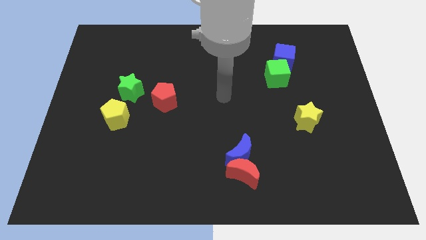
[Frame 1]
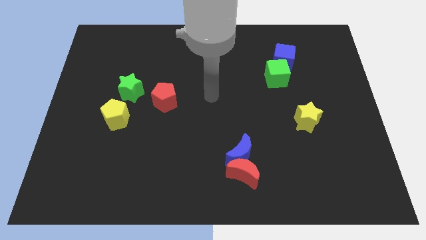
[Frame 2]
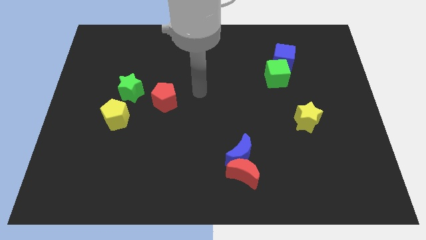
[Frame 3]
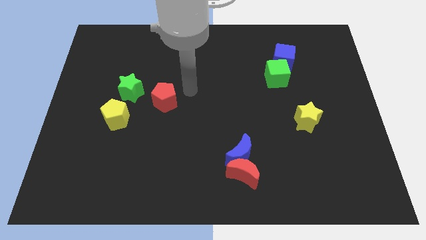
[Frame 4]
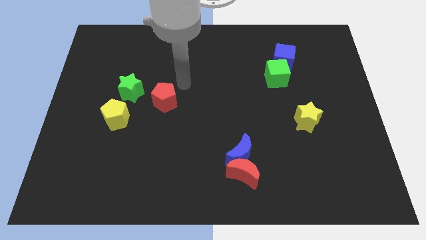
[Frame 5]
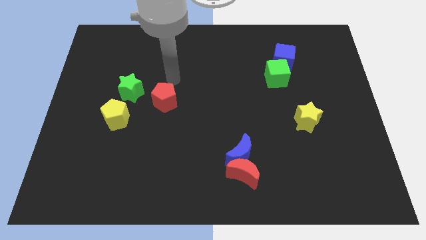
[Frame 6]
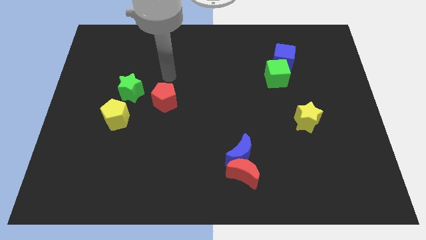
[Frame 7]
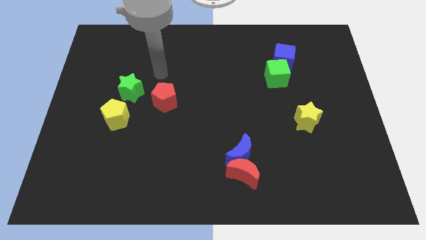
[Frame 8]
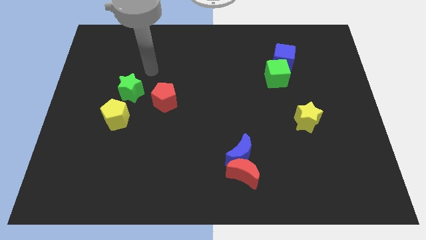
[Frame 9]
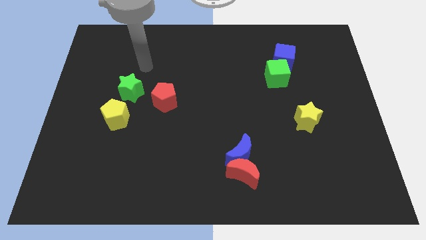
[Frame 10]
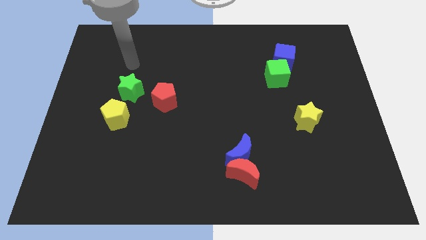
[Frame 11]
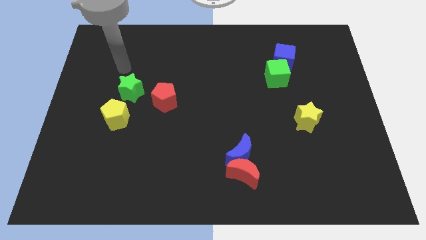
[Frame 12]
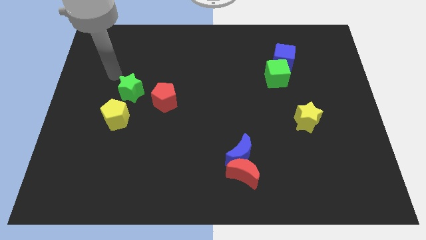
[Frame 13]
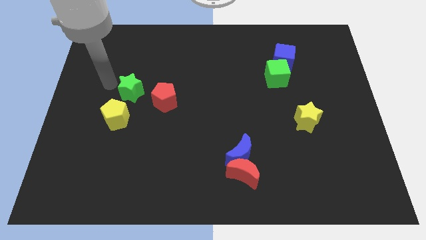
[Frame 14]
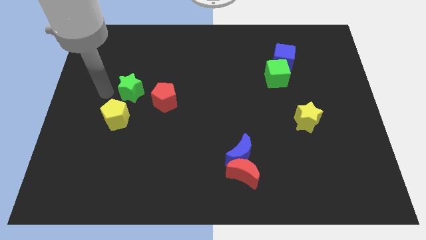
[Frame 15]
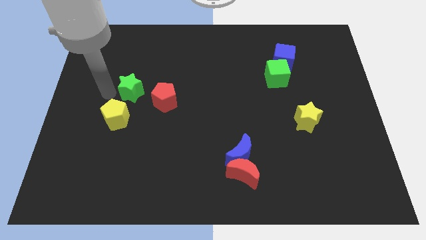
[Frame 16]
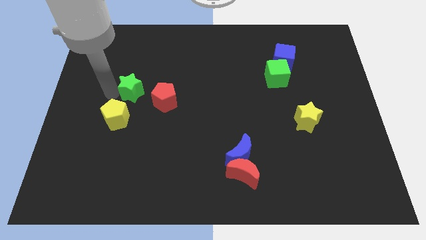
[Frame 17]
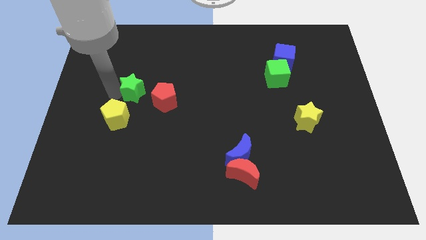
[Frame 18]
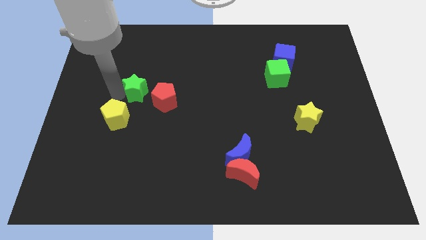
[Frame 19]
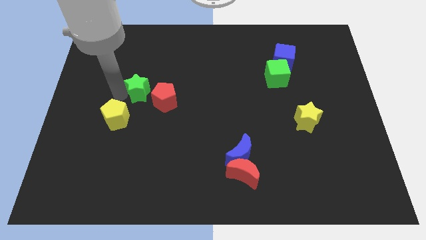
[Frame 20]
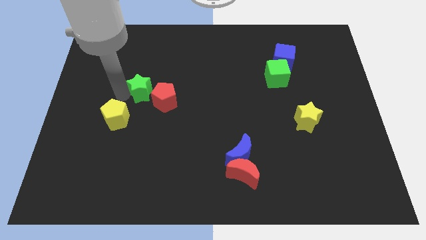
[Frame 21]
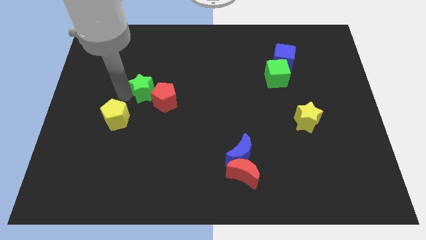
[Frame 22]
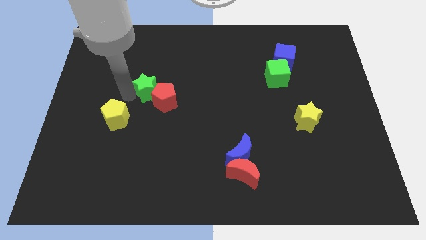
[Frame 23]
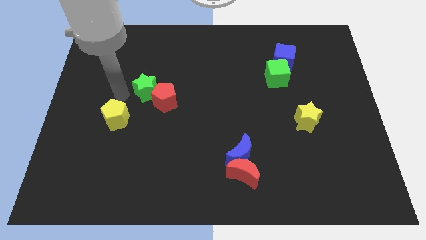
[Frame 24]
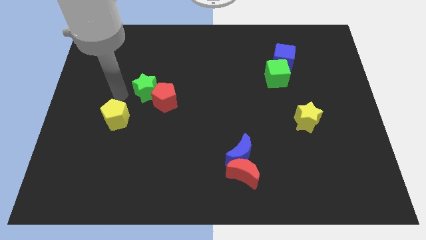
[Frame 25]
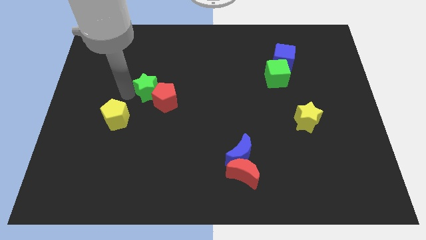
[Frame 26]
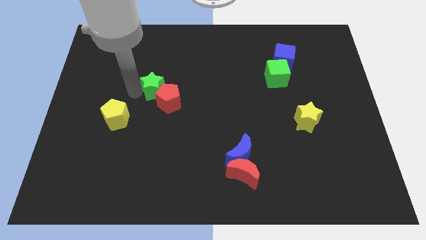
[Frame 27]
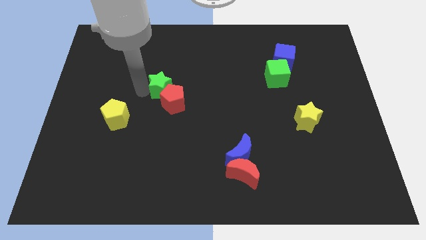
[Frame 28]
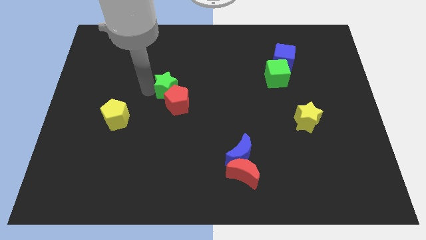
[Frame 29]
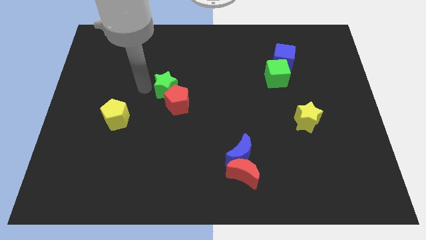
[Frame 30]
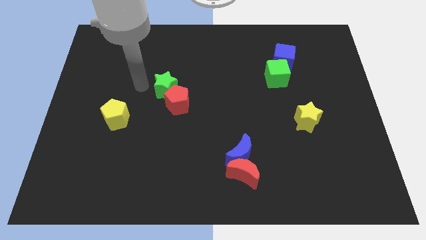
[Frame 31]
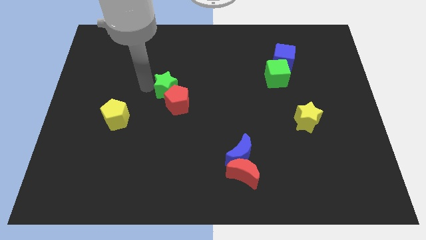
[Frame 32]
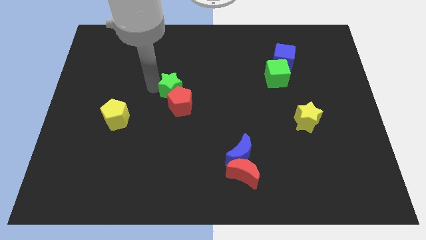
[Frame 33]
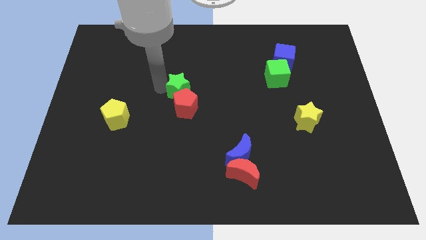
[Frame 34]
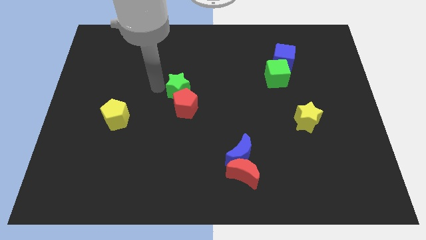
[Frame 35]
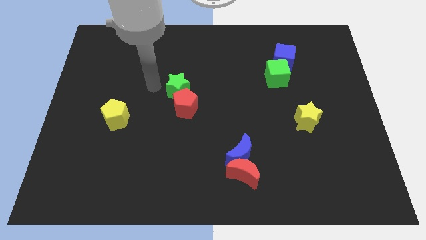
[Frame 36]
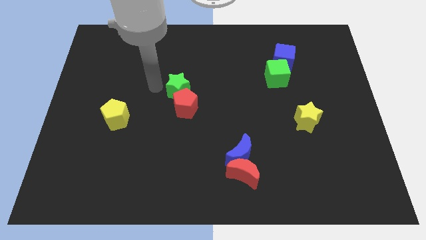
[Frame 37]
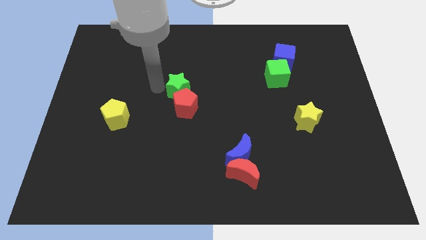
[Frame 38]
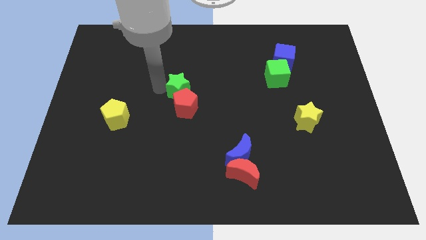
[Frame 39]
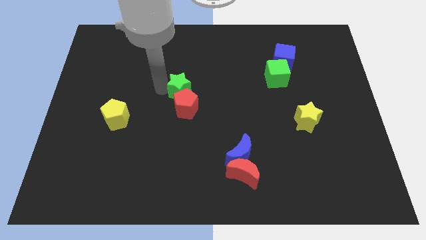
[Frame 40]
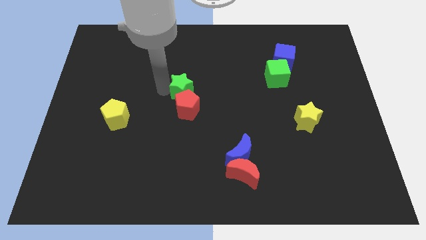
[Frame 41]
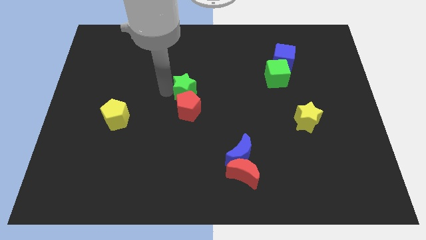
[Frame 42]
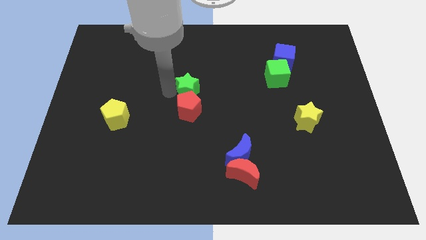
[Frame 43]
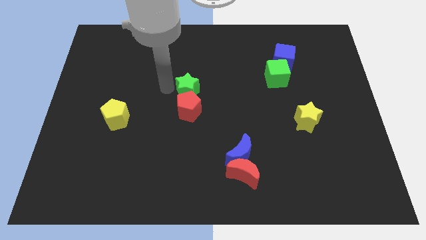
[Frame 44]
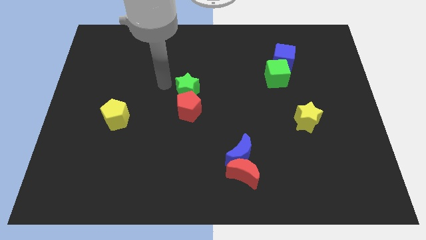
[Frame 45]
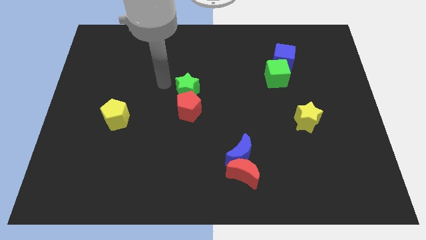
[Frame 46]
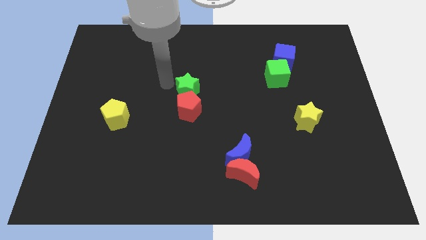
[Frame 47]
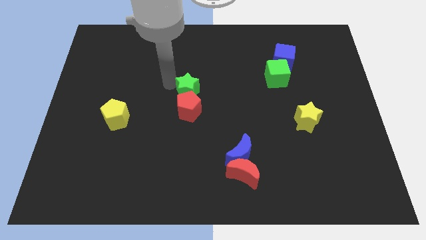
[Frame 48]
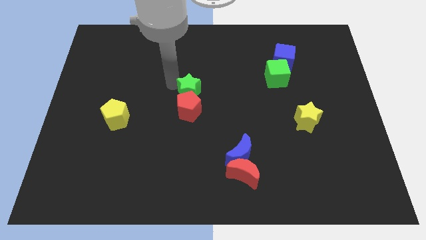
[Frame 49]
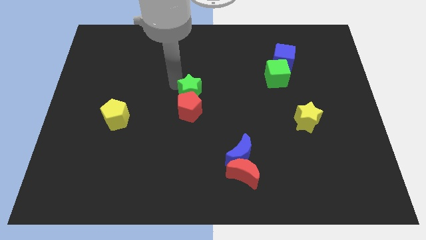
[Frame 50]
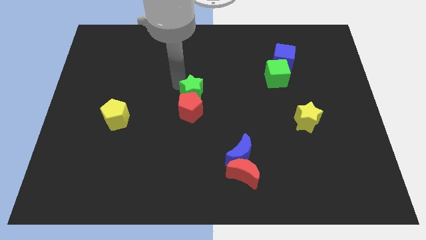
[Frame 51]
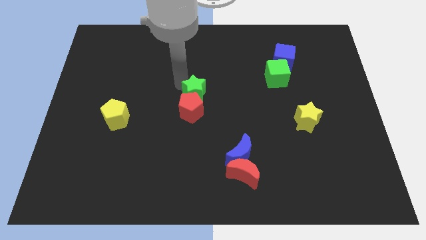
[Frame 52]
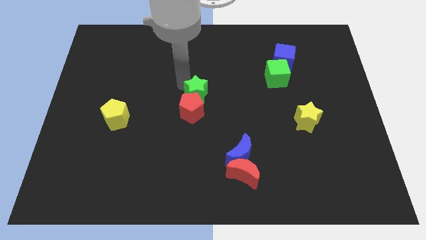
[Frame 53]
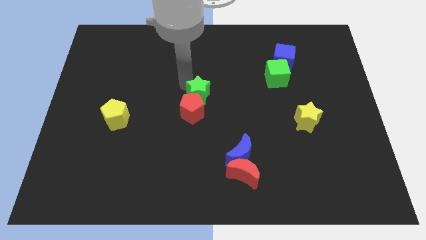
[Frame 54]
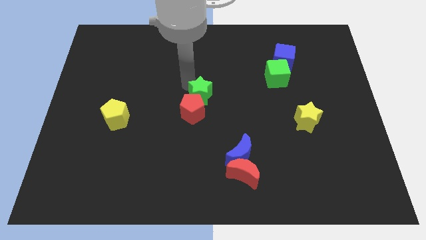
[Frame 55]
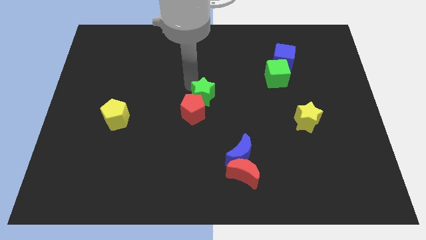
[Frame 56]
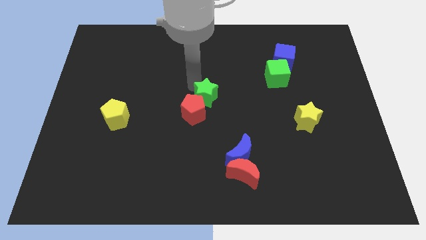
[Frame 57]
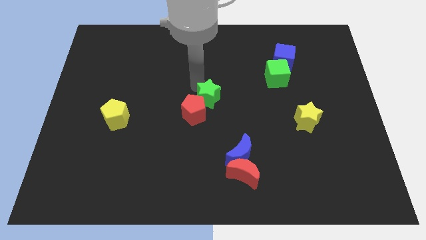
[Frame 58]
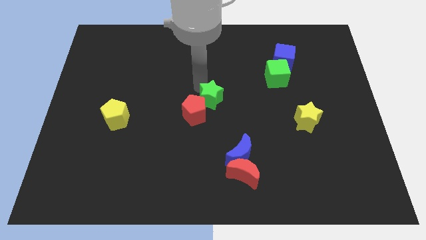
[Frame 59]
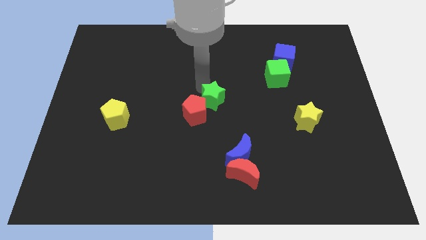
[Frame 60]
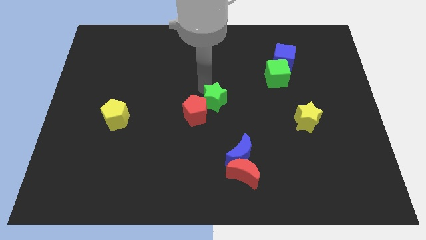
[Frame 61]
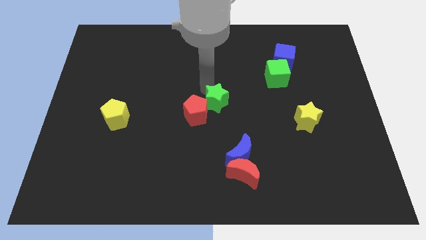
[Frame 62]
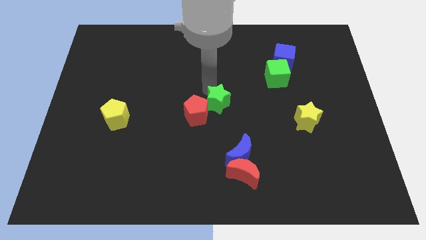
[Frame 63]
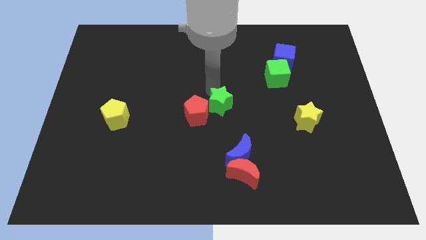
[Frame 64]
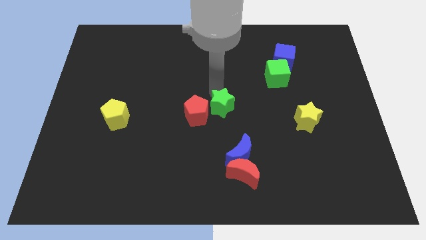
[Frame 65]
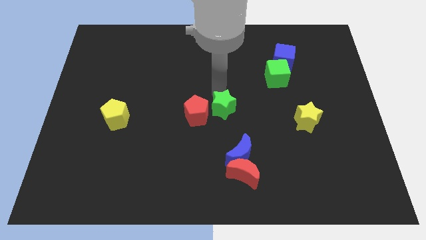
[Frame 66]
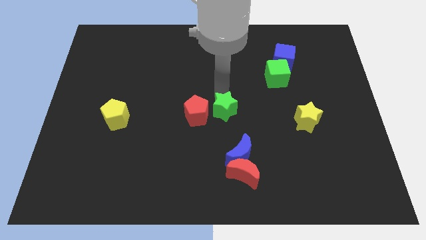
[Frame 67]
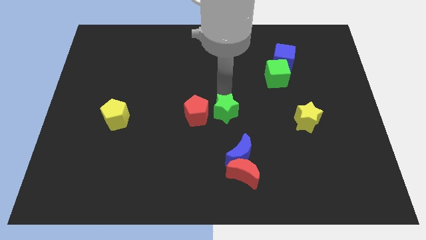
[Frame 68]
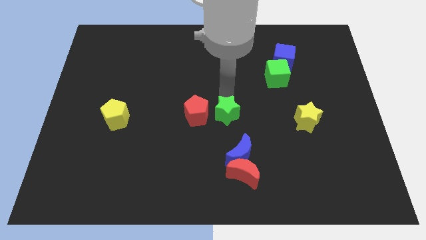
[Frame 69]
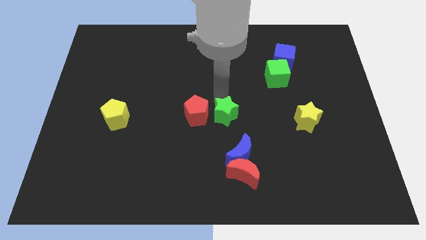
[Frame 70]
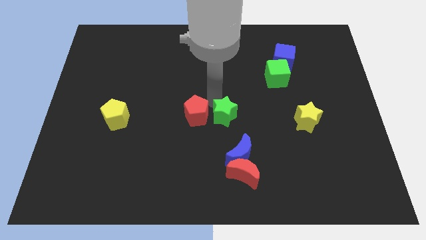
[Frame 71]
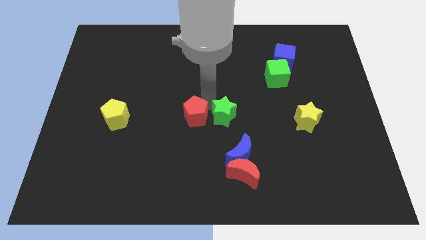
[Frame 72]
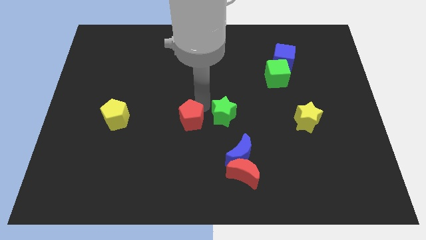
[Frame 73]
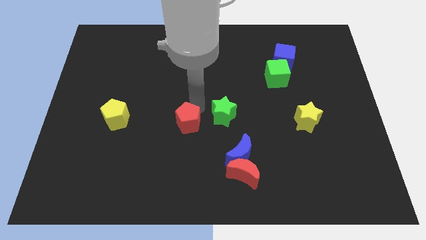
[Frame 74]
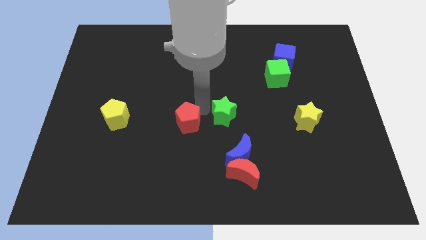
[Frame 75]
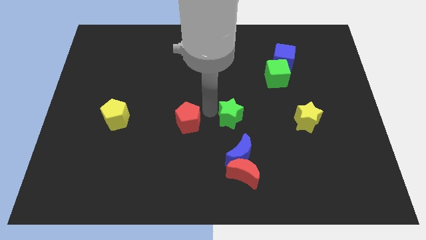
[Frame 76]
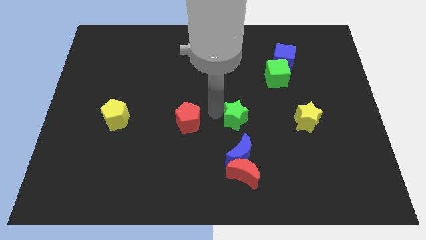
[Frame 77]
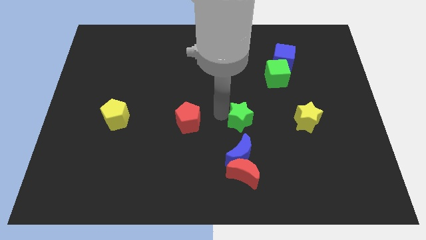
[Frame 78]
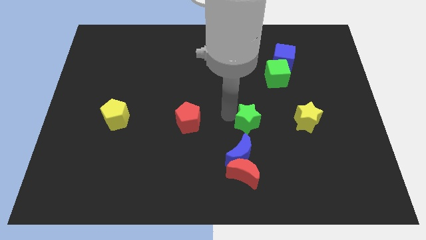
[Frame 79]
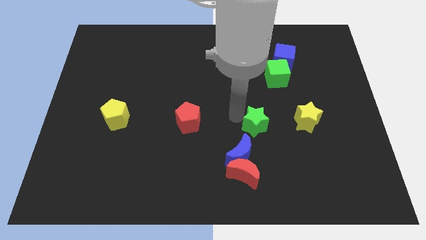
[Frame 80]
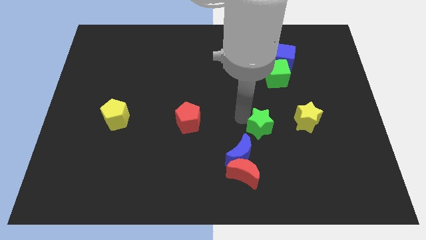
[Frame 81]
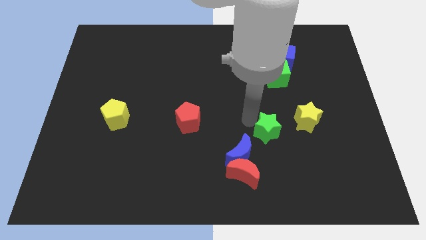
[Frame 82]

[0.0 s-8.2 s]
push the green star diagonally down and to the left of the yellow star

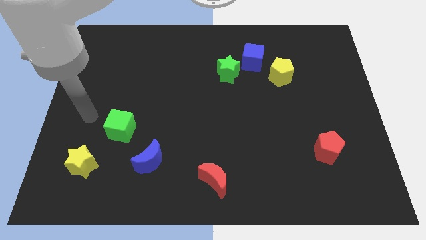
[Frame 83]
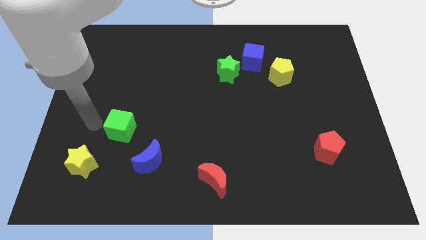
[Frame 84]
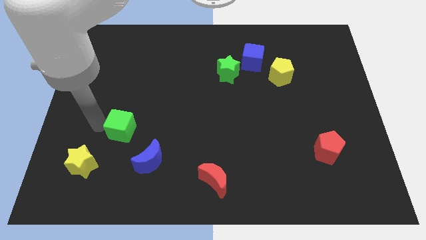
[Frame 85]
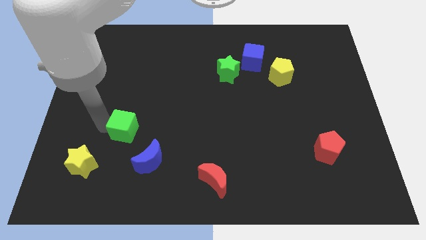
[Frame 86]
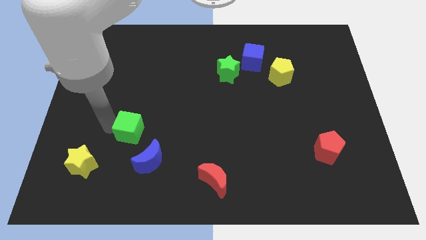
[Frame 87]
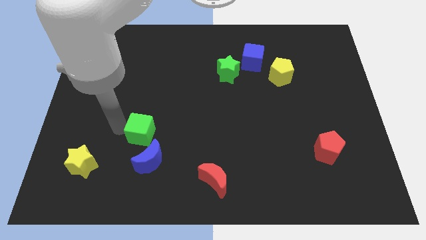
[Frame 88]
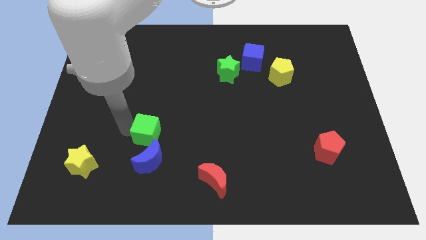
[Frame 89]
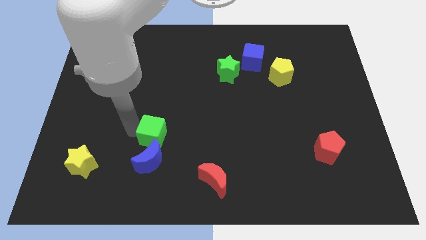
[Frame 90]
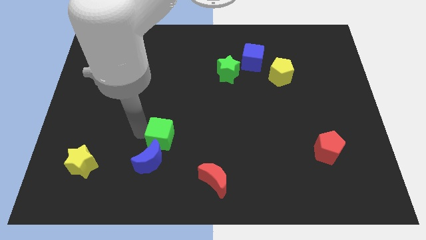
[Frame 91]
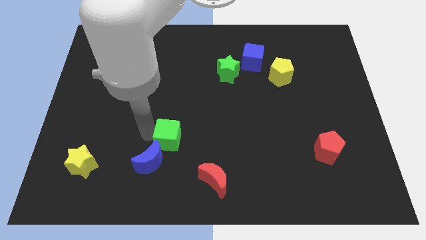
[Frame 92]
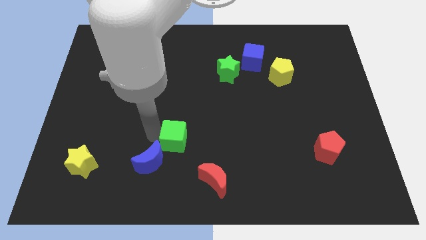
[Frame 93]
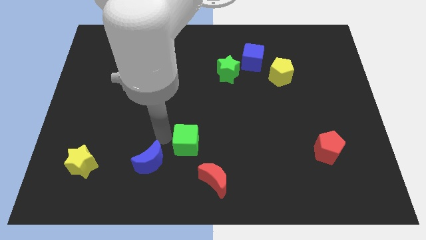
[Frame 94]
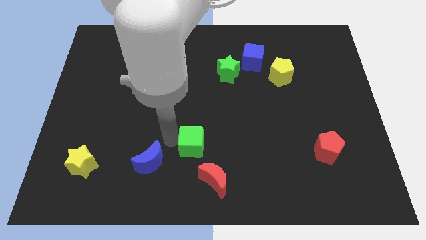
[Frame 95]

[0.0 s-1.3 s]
put the green cube above the red moon
